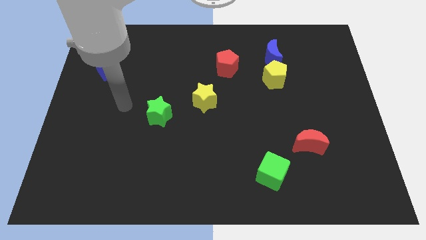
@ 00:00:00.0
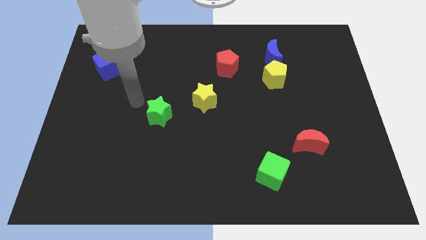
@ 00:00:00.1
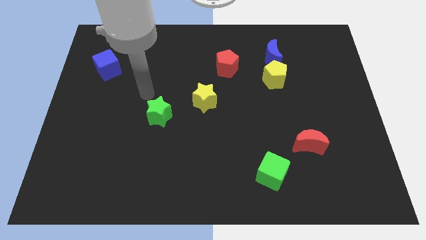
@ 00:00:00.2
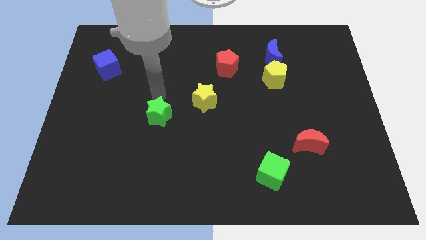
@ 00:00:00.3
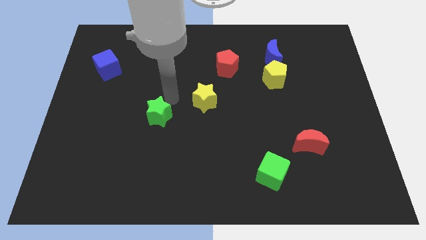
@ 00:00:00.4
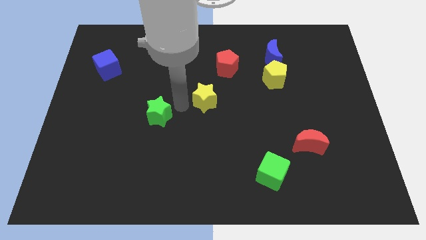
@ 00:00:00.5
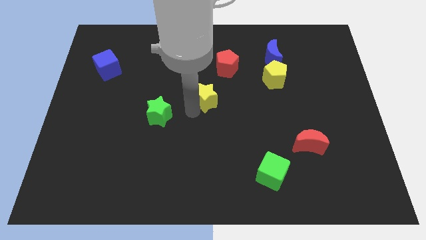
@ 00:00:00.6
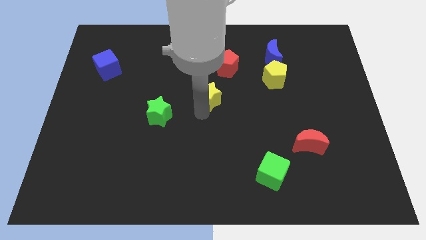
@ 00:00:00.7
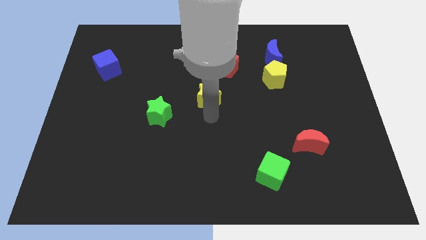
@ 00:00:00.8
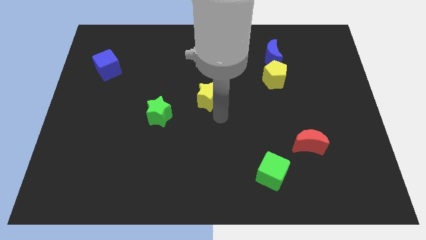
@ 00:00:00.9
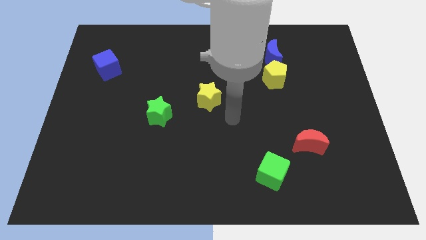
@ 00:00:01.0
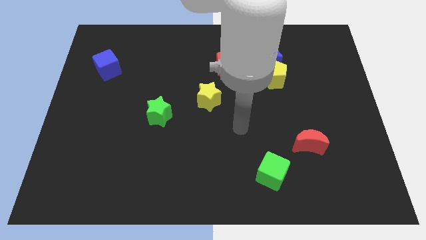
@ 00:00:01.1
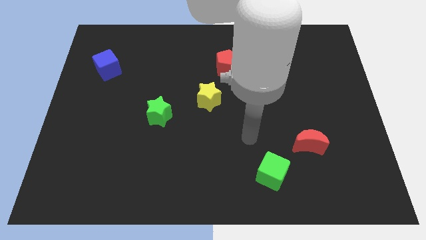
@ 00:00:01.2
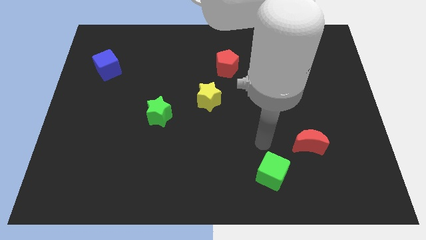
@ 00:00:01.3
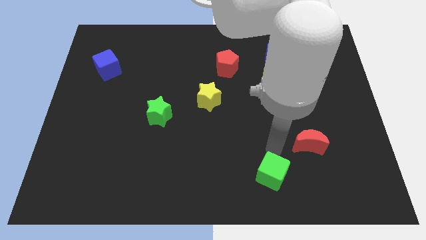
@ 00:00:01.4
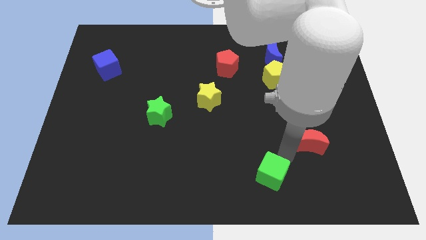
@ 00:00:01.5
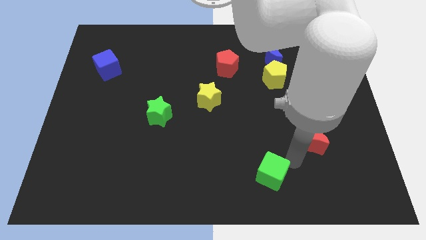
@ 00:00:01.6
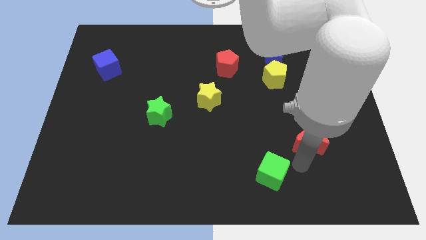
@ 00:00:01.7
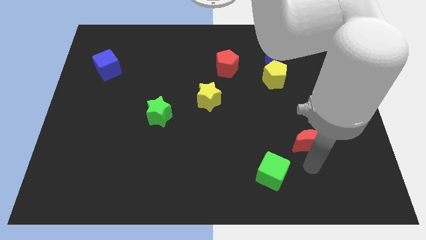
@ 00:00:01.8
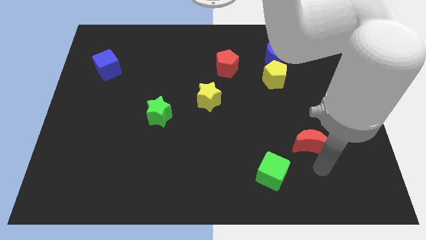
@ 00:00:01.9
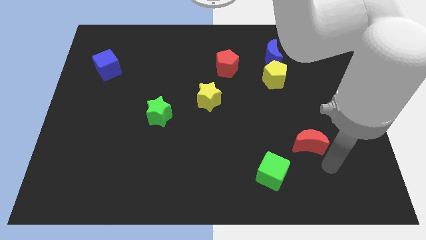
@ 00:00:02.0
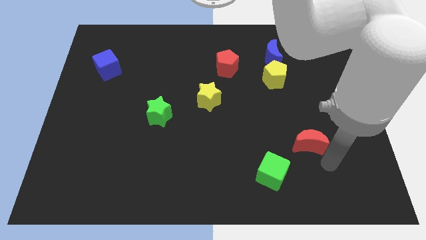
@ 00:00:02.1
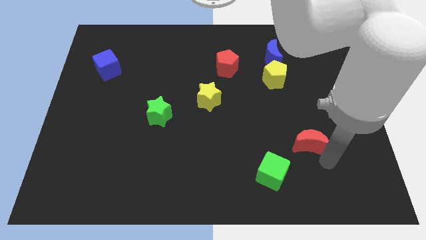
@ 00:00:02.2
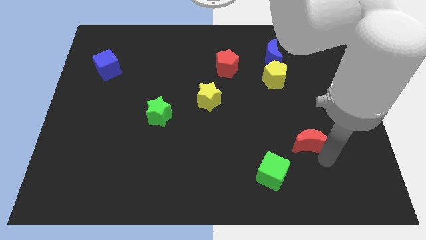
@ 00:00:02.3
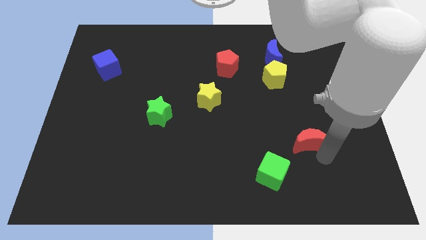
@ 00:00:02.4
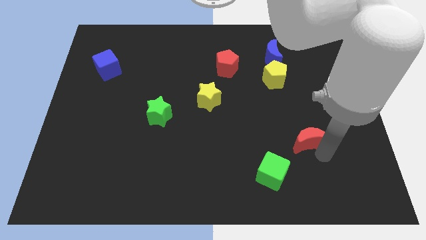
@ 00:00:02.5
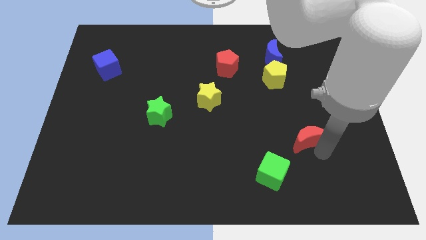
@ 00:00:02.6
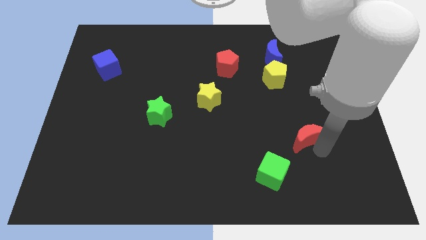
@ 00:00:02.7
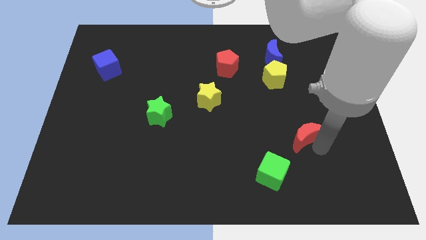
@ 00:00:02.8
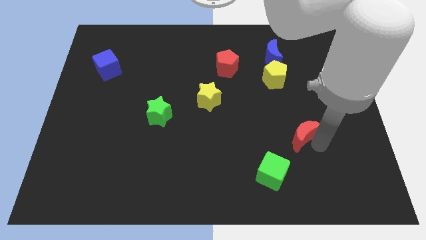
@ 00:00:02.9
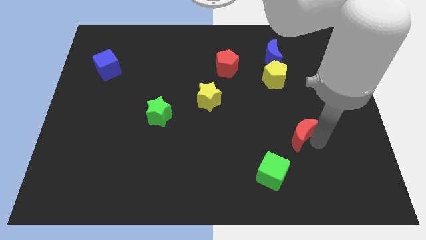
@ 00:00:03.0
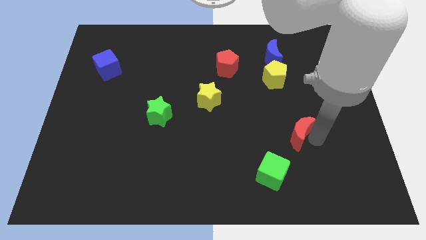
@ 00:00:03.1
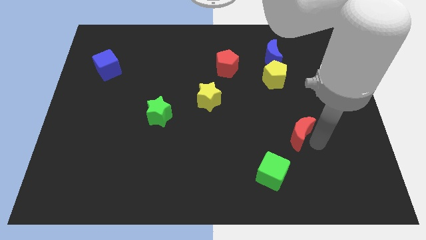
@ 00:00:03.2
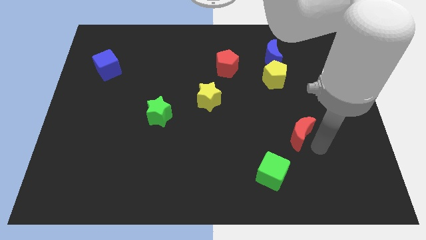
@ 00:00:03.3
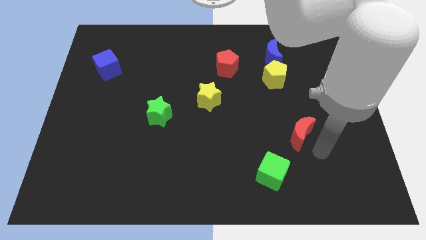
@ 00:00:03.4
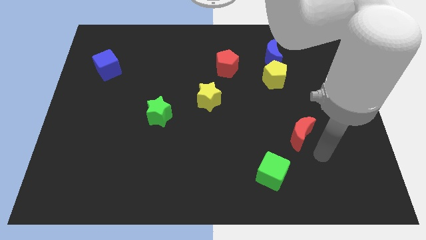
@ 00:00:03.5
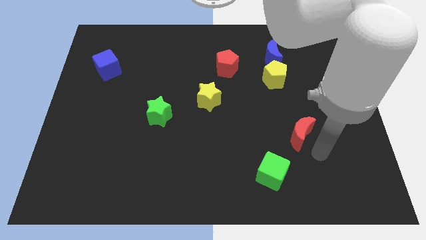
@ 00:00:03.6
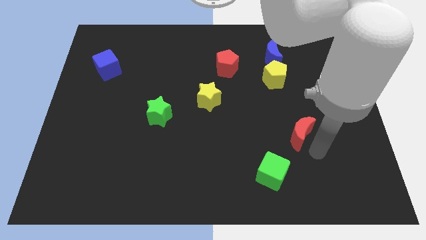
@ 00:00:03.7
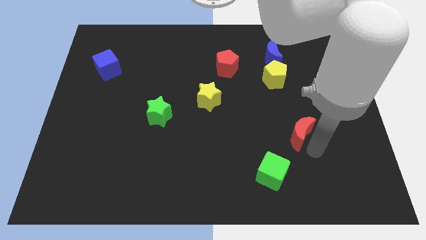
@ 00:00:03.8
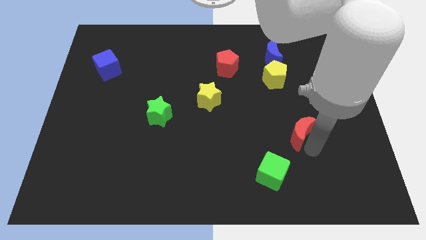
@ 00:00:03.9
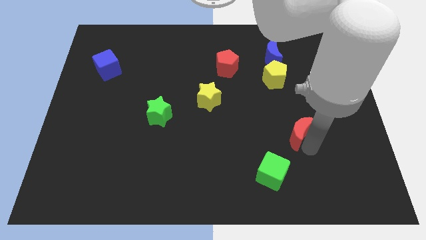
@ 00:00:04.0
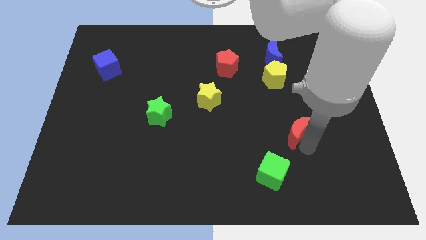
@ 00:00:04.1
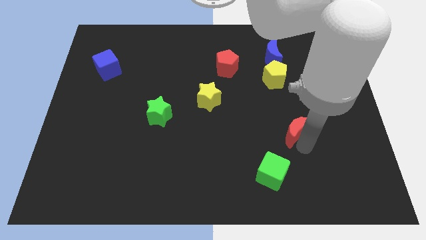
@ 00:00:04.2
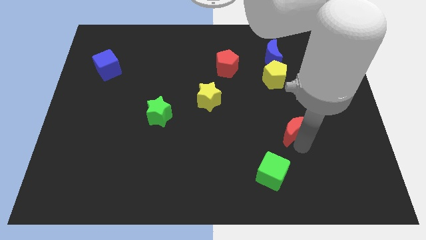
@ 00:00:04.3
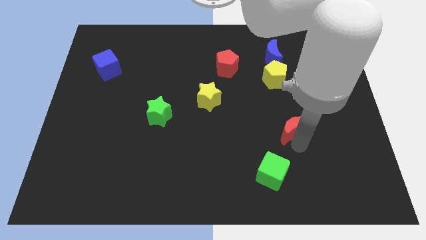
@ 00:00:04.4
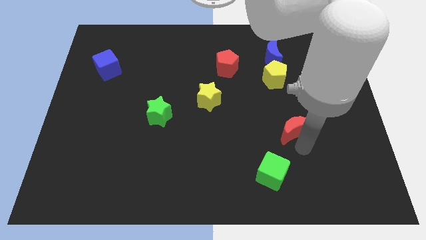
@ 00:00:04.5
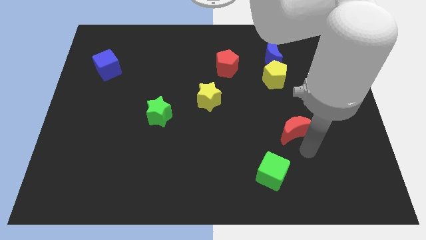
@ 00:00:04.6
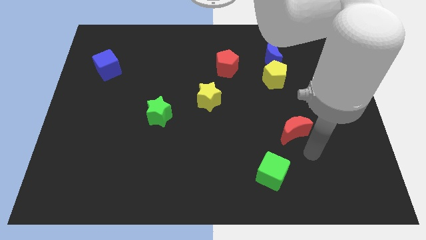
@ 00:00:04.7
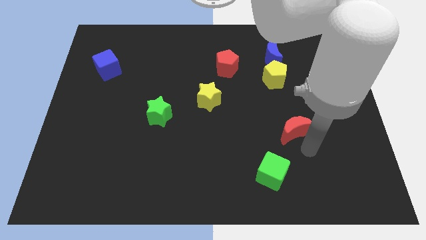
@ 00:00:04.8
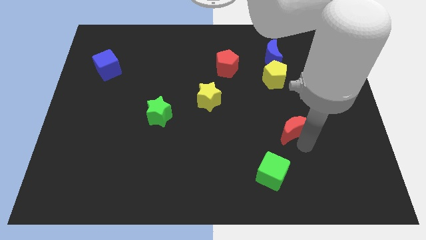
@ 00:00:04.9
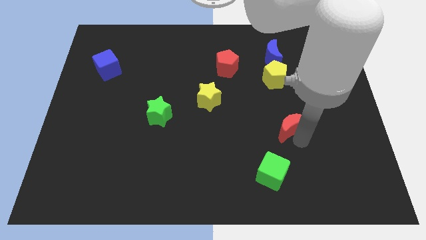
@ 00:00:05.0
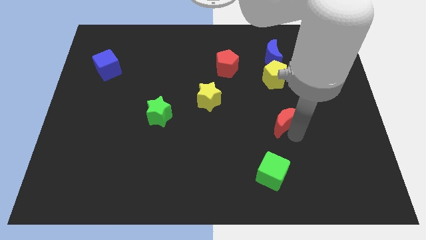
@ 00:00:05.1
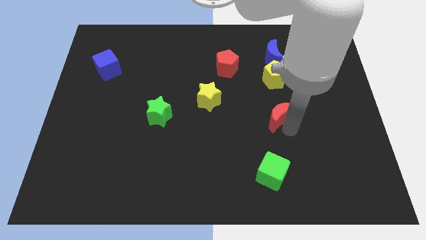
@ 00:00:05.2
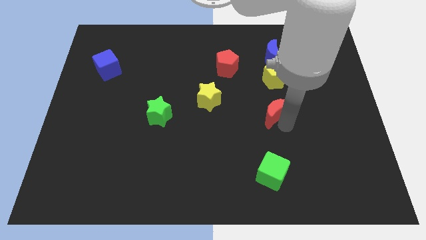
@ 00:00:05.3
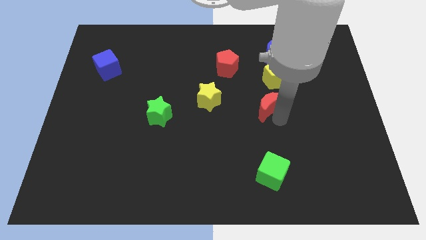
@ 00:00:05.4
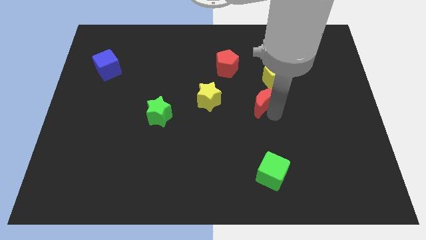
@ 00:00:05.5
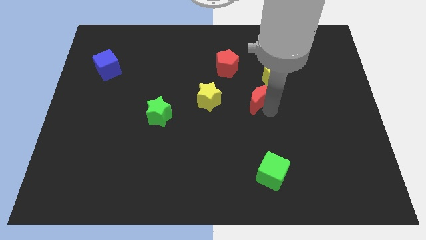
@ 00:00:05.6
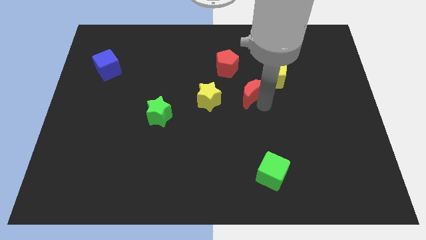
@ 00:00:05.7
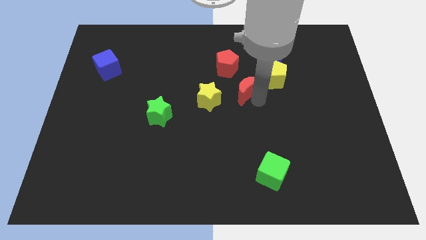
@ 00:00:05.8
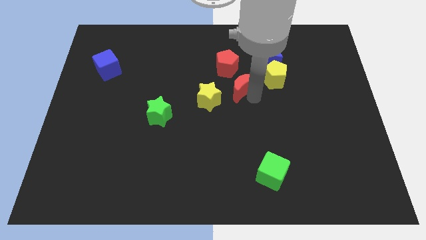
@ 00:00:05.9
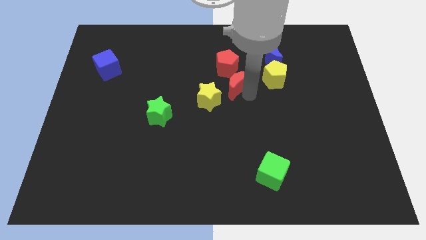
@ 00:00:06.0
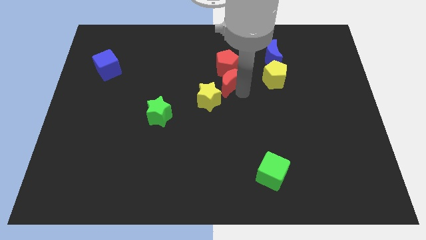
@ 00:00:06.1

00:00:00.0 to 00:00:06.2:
slide the red moon to the red pentagon

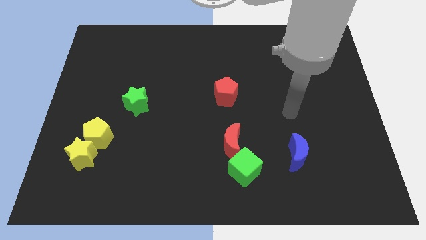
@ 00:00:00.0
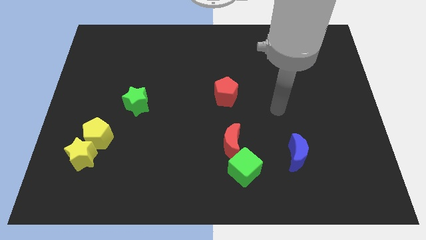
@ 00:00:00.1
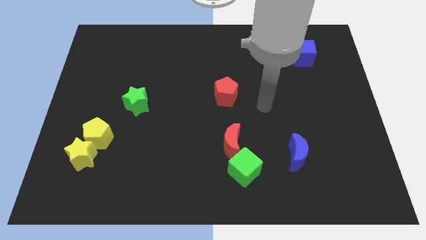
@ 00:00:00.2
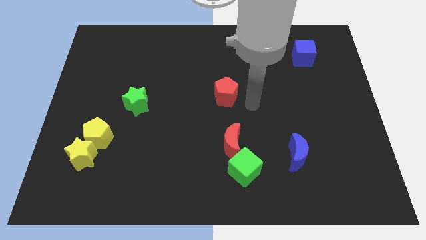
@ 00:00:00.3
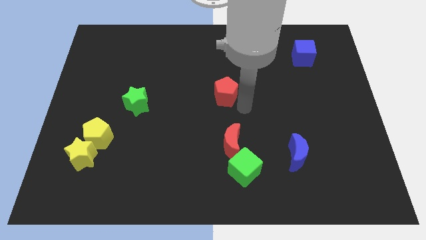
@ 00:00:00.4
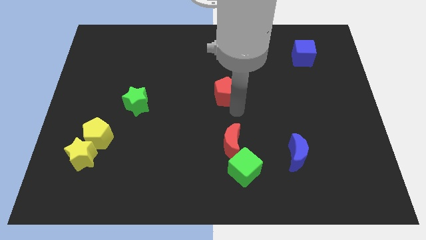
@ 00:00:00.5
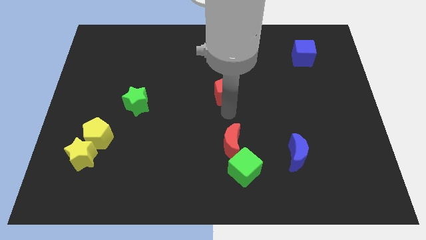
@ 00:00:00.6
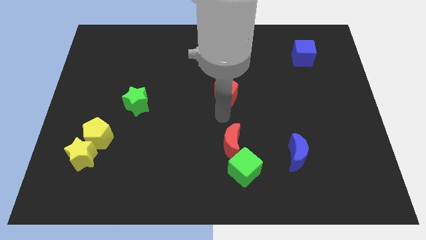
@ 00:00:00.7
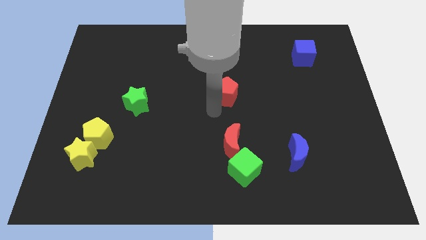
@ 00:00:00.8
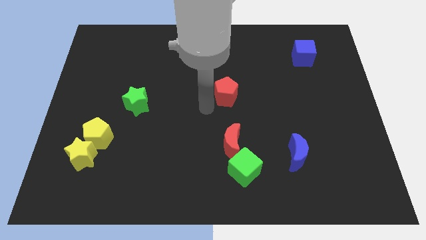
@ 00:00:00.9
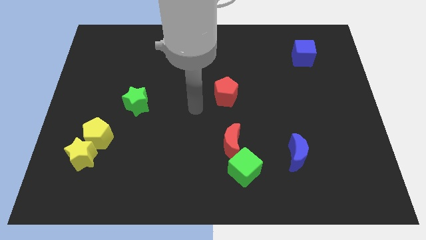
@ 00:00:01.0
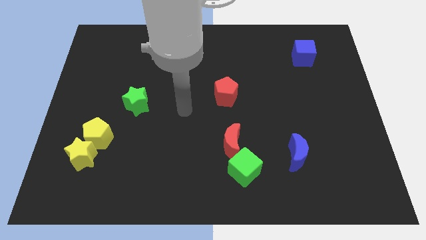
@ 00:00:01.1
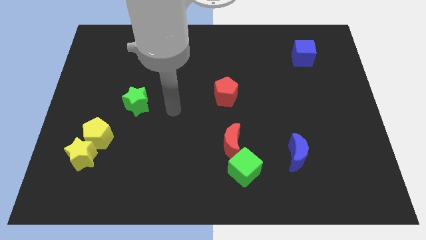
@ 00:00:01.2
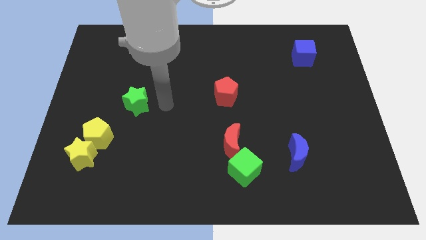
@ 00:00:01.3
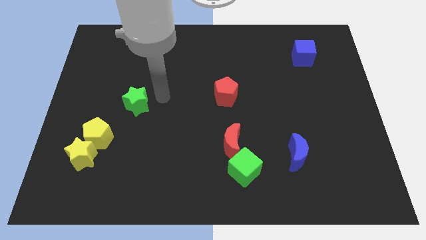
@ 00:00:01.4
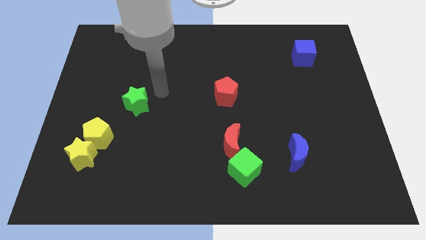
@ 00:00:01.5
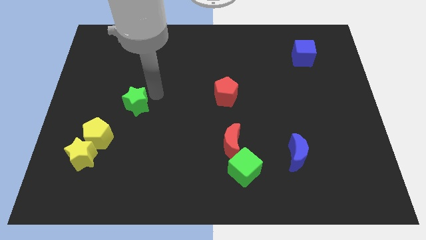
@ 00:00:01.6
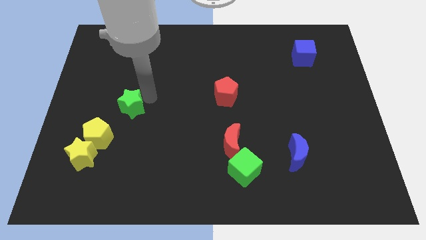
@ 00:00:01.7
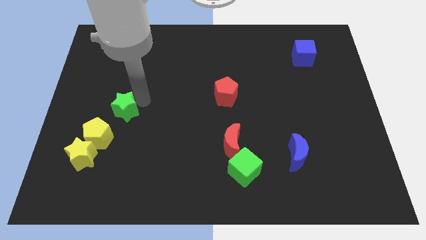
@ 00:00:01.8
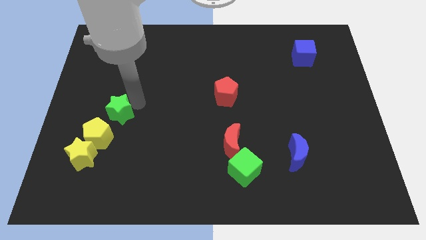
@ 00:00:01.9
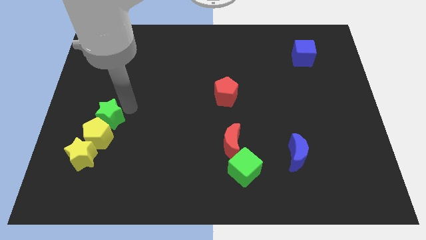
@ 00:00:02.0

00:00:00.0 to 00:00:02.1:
push the green star close to the yellow pentagon
